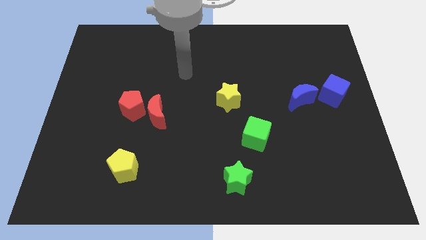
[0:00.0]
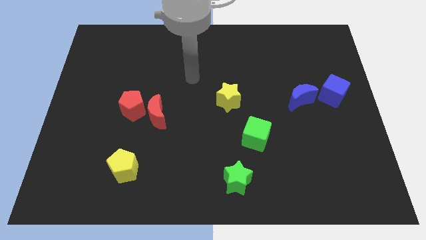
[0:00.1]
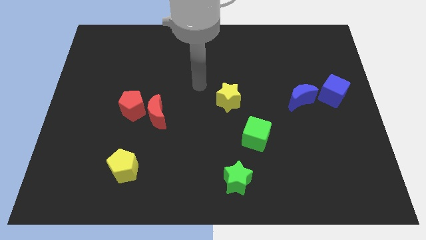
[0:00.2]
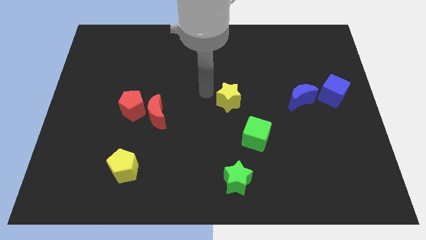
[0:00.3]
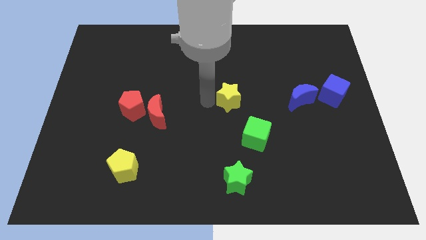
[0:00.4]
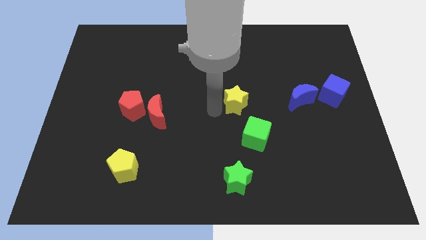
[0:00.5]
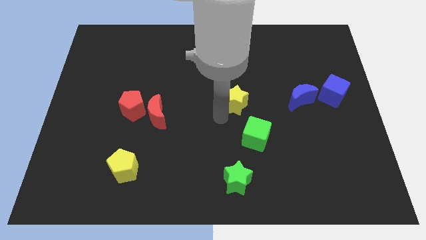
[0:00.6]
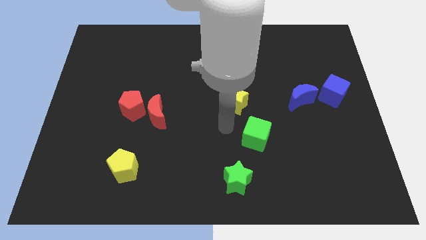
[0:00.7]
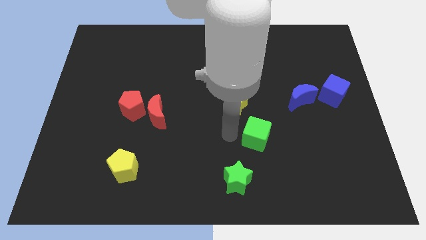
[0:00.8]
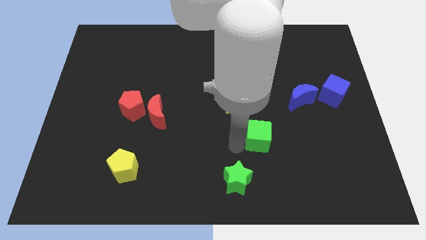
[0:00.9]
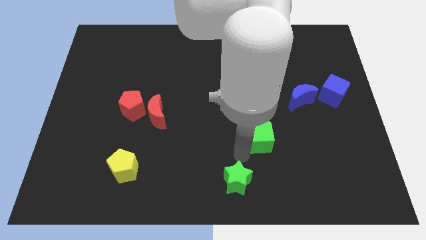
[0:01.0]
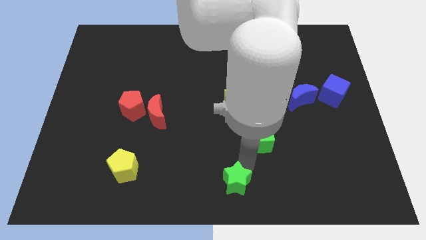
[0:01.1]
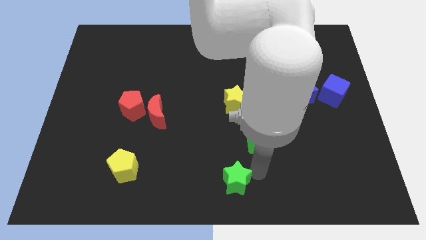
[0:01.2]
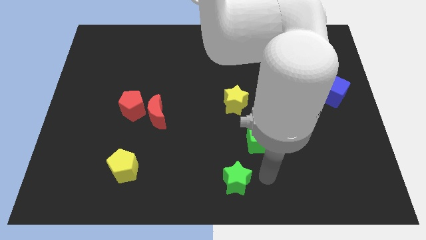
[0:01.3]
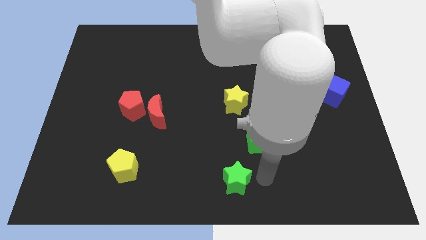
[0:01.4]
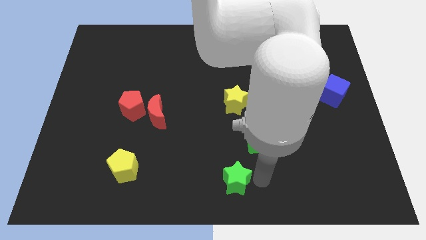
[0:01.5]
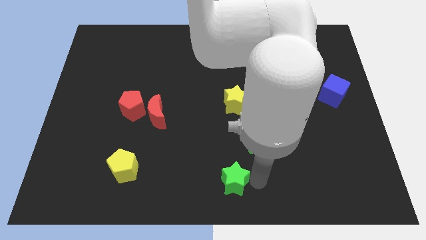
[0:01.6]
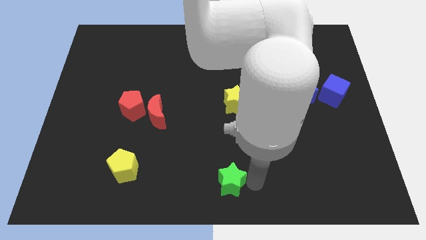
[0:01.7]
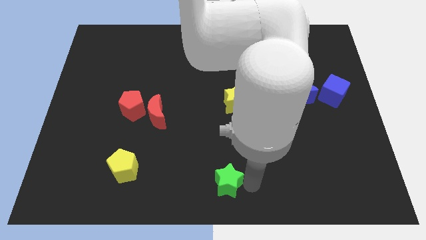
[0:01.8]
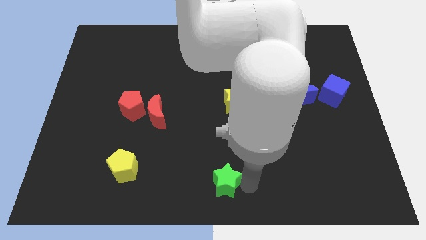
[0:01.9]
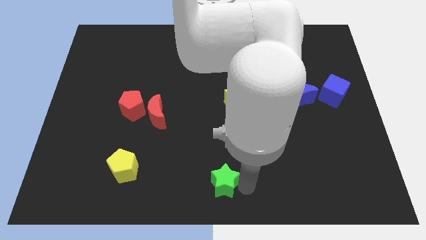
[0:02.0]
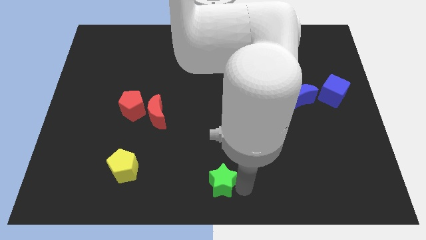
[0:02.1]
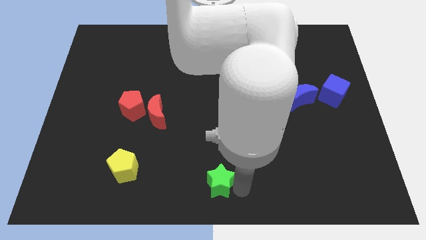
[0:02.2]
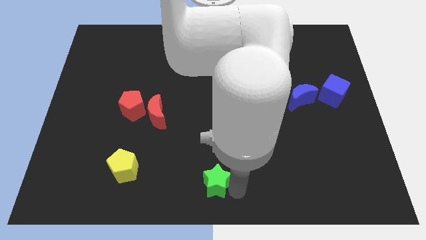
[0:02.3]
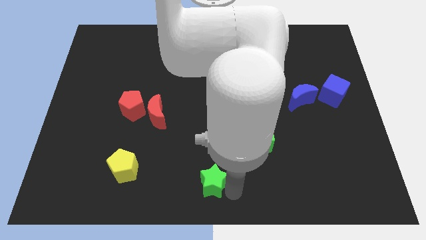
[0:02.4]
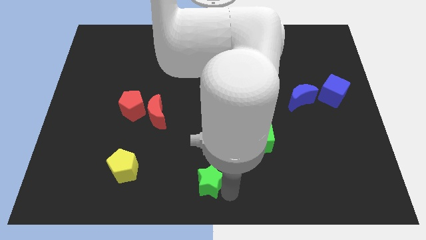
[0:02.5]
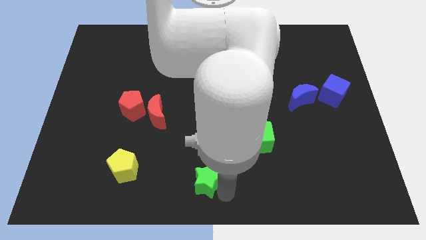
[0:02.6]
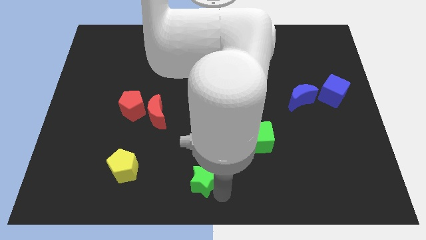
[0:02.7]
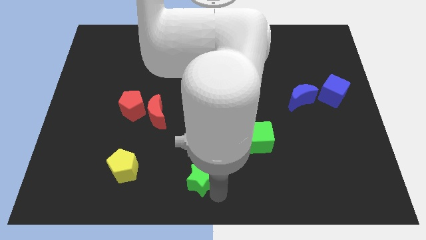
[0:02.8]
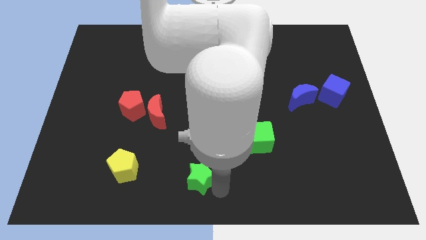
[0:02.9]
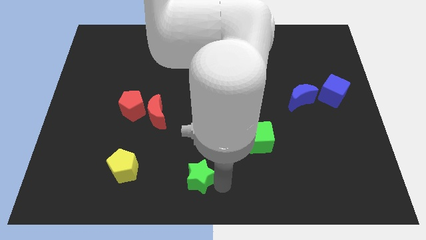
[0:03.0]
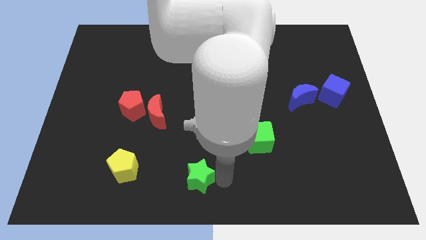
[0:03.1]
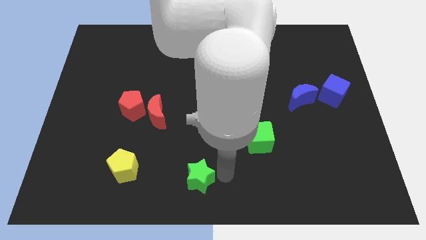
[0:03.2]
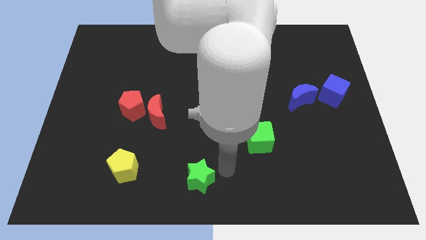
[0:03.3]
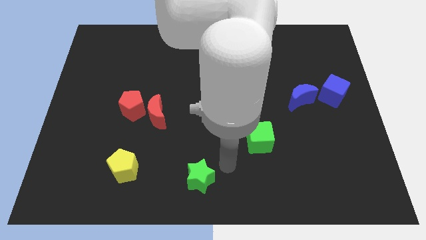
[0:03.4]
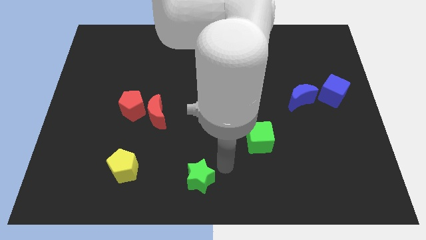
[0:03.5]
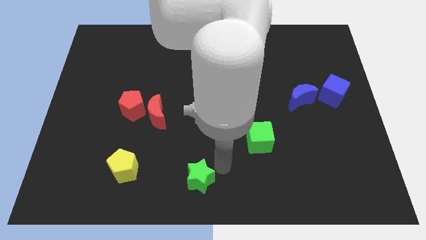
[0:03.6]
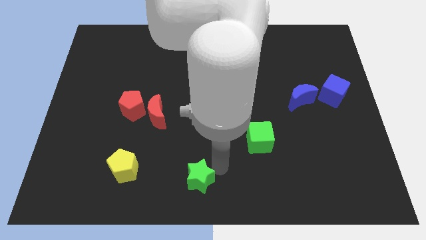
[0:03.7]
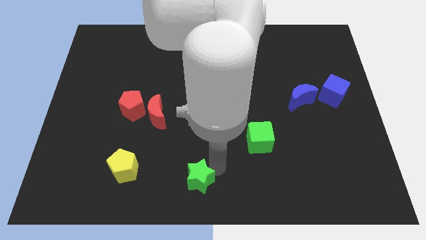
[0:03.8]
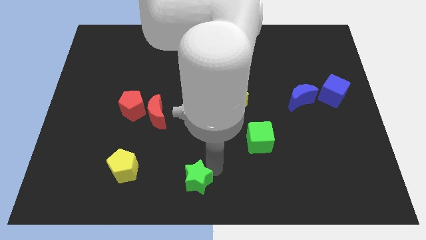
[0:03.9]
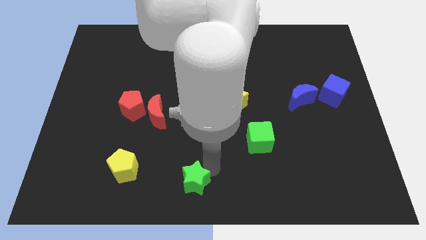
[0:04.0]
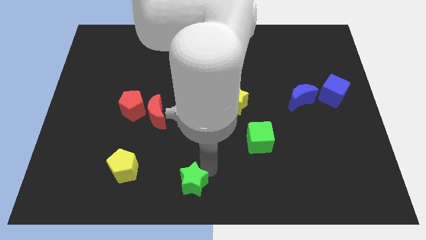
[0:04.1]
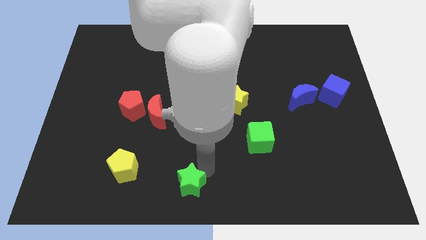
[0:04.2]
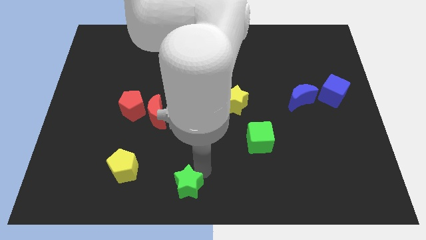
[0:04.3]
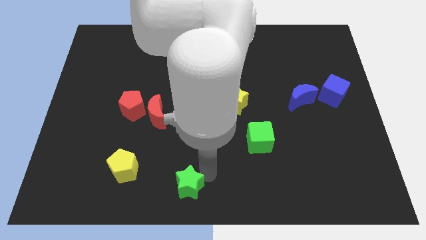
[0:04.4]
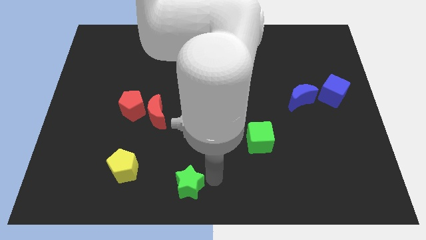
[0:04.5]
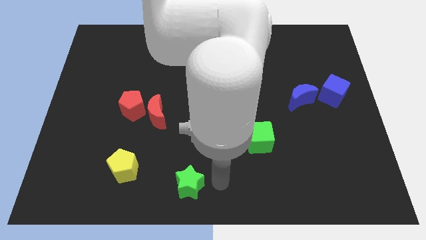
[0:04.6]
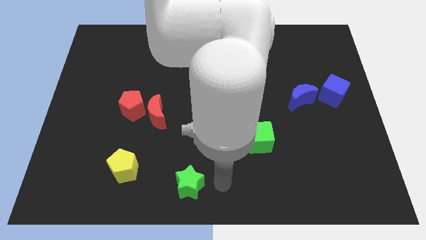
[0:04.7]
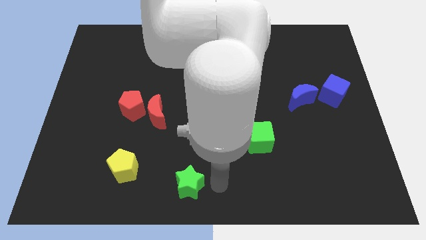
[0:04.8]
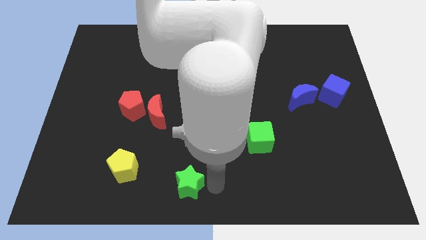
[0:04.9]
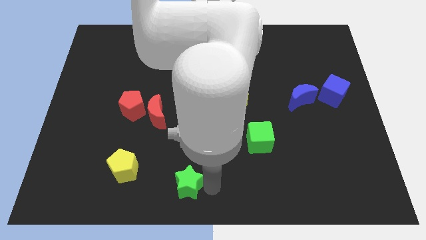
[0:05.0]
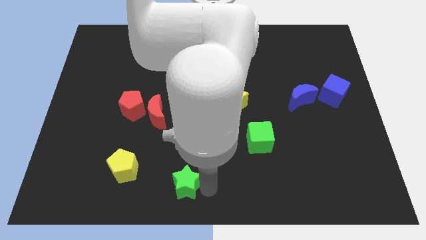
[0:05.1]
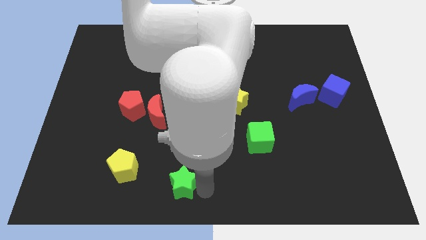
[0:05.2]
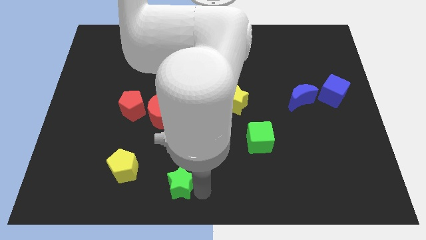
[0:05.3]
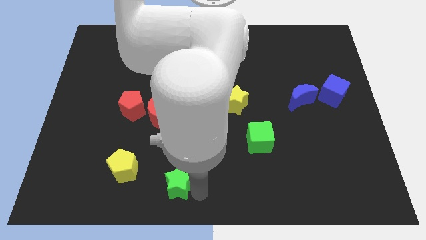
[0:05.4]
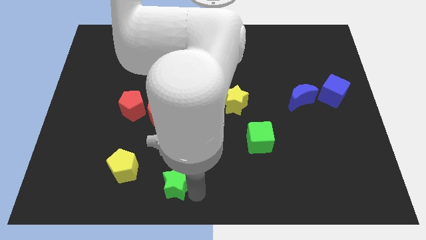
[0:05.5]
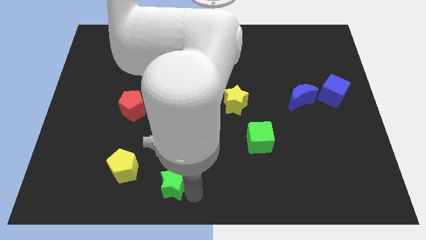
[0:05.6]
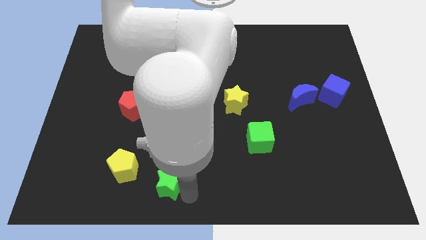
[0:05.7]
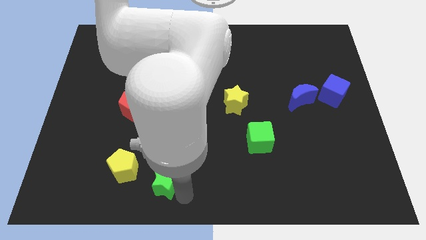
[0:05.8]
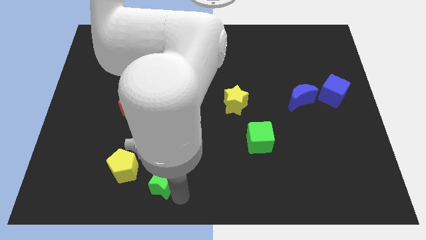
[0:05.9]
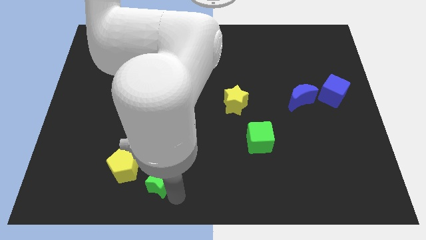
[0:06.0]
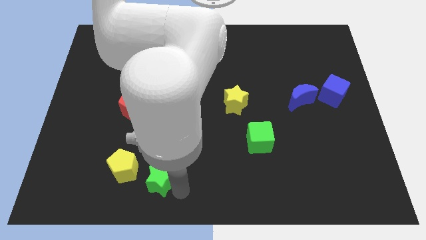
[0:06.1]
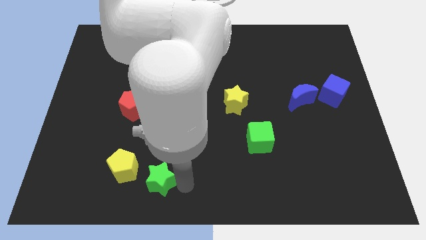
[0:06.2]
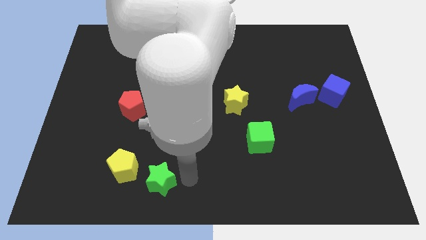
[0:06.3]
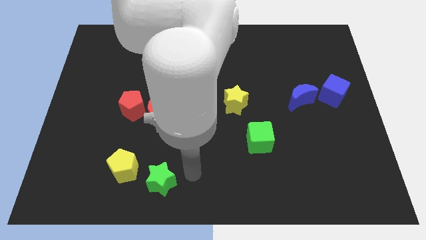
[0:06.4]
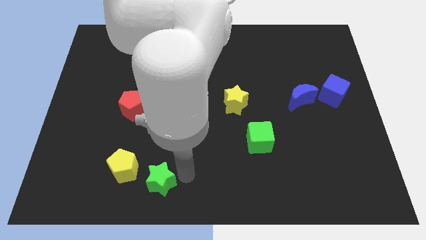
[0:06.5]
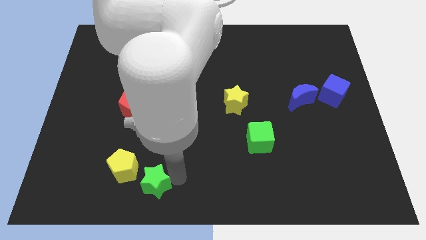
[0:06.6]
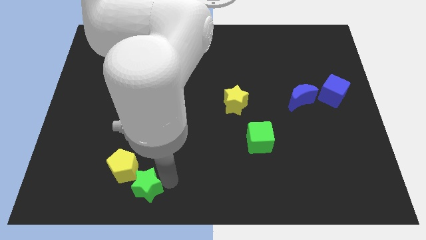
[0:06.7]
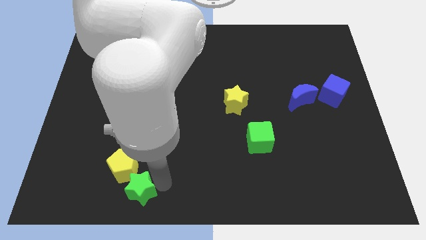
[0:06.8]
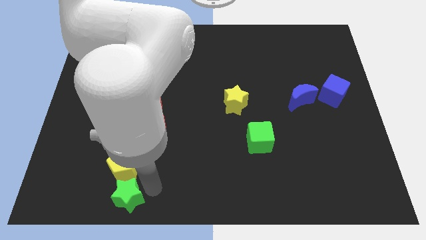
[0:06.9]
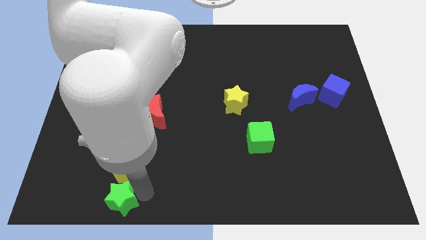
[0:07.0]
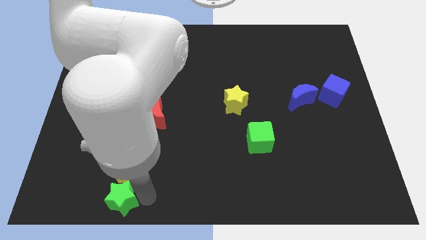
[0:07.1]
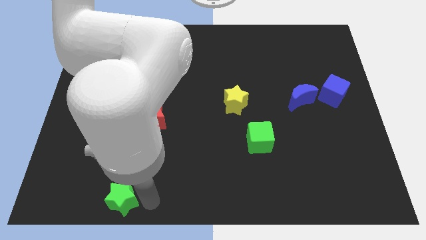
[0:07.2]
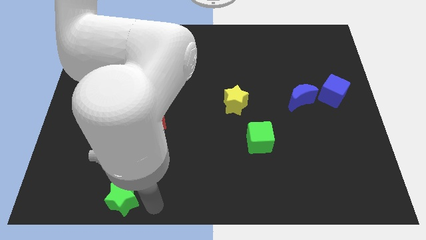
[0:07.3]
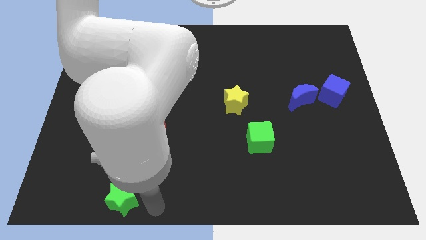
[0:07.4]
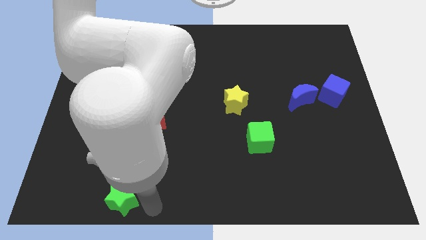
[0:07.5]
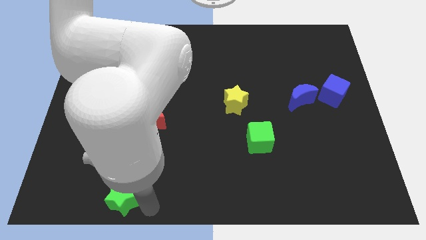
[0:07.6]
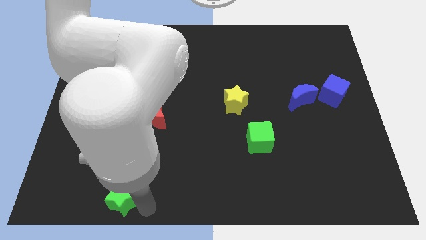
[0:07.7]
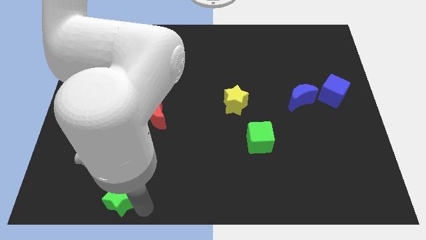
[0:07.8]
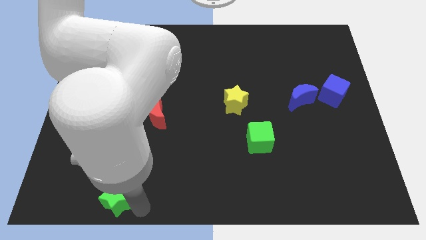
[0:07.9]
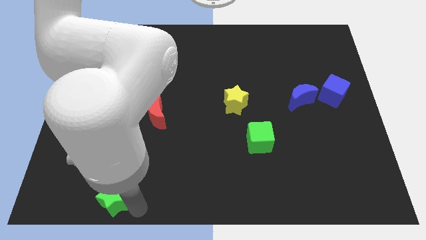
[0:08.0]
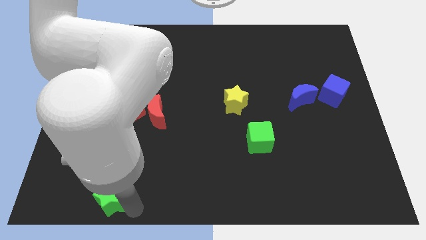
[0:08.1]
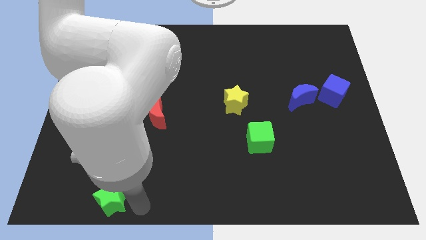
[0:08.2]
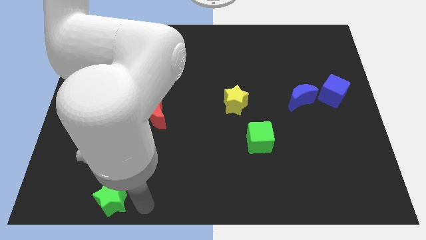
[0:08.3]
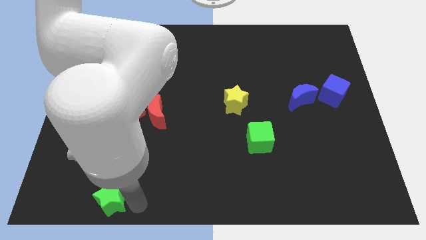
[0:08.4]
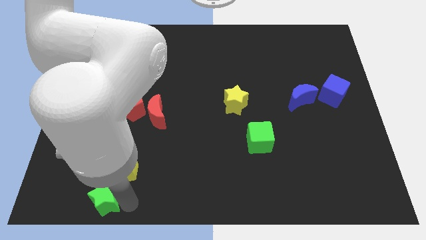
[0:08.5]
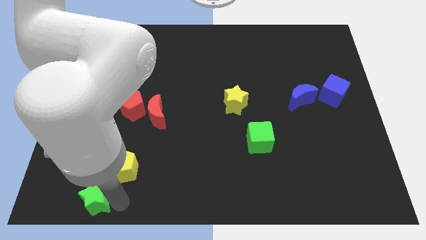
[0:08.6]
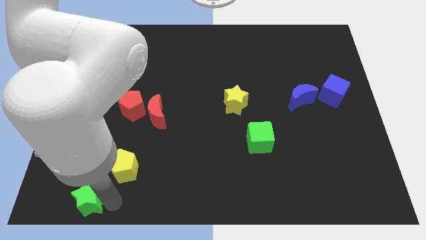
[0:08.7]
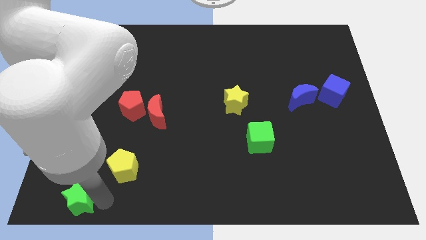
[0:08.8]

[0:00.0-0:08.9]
move the green star to the bottom left of the board
